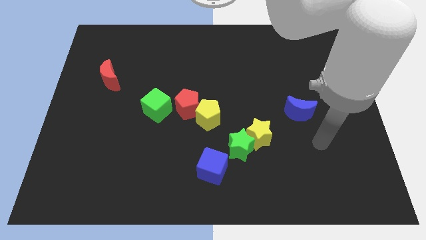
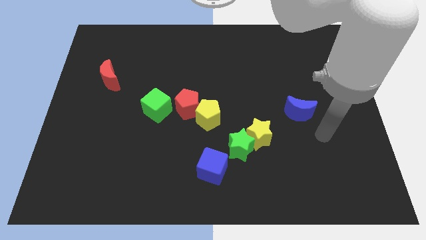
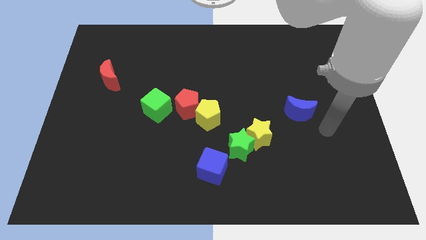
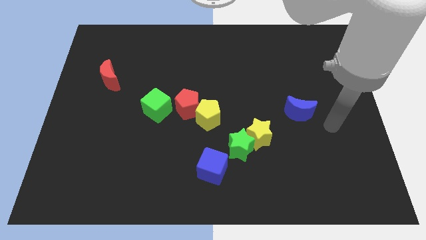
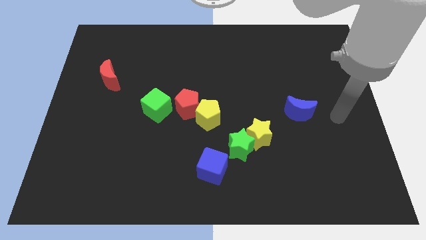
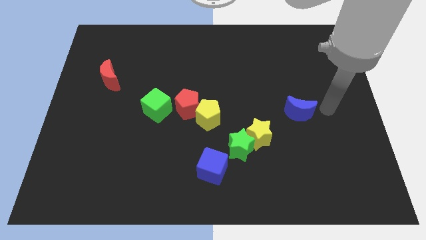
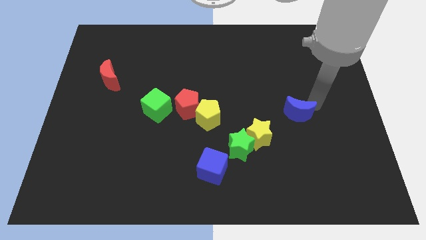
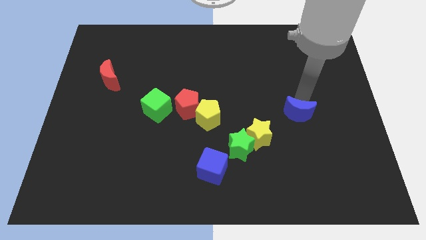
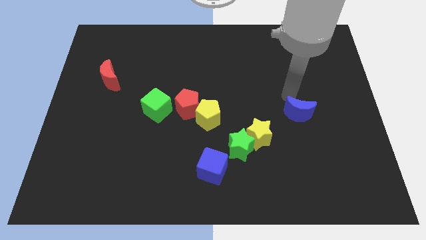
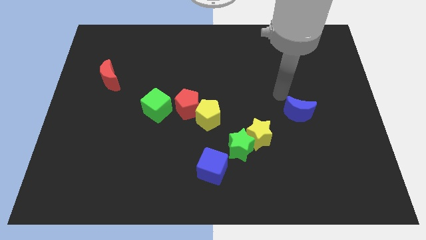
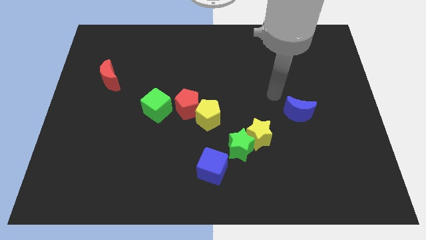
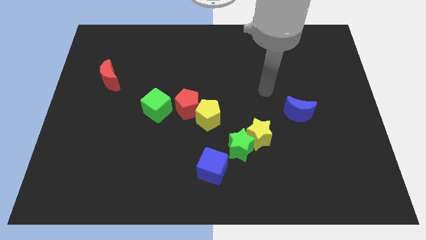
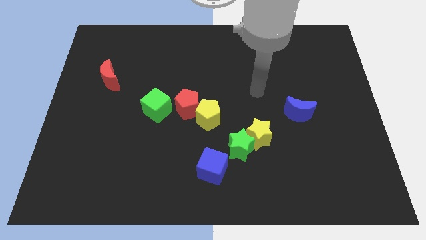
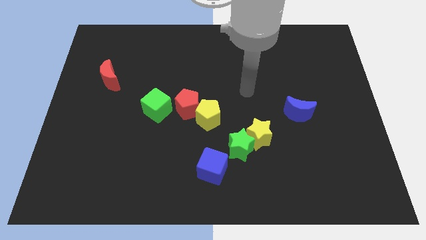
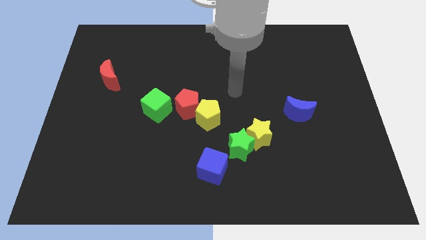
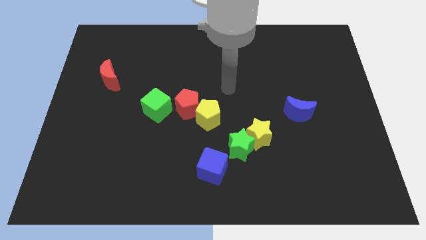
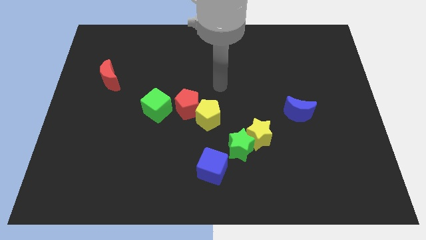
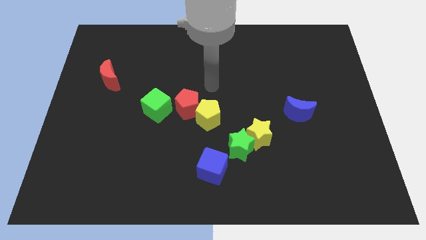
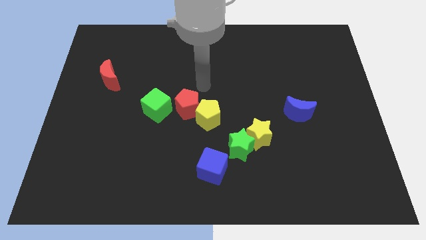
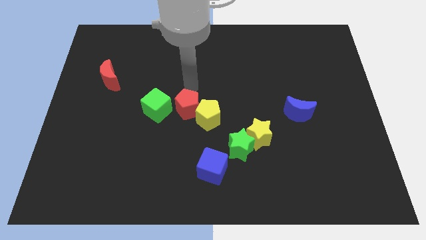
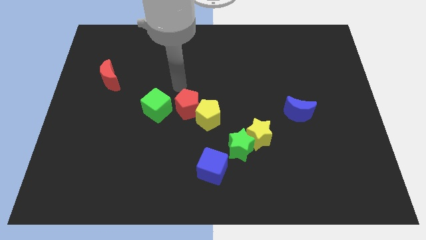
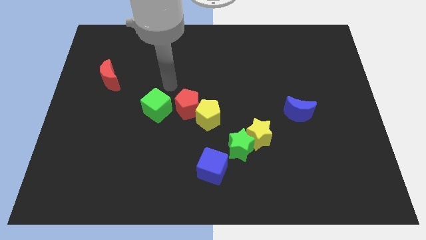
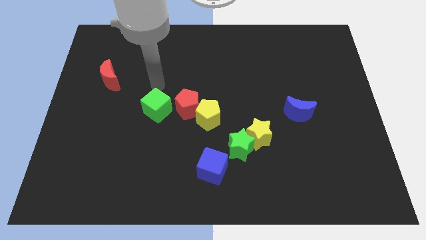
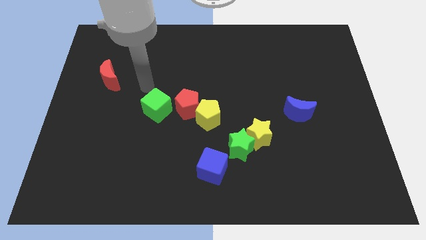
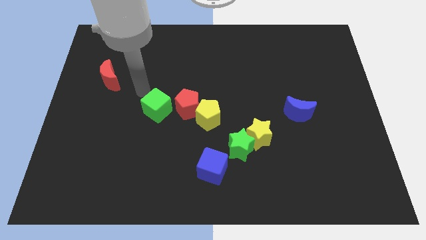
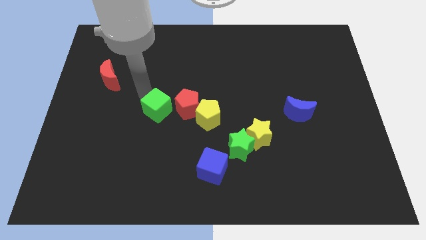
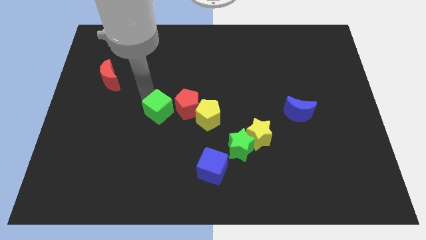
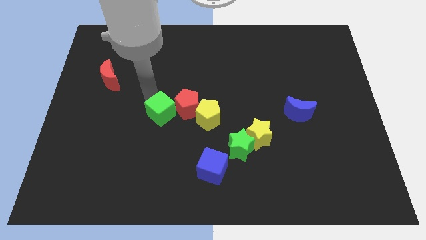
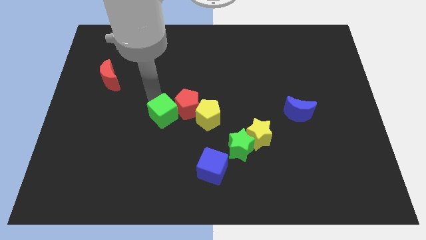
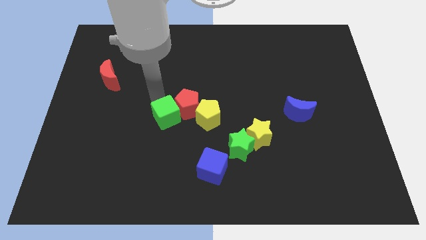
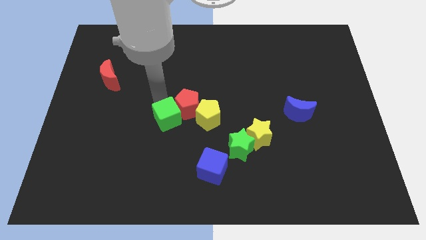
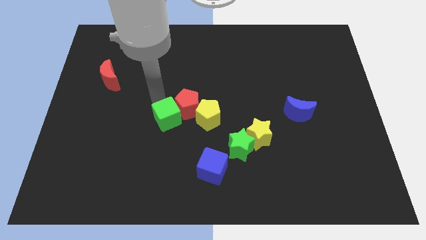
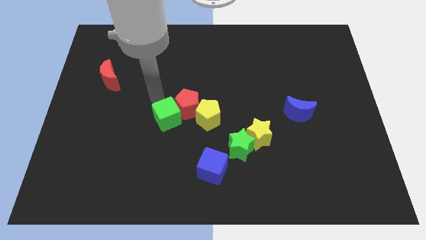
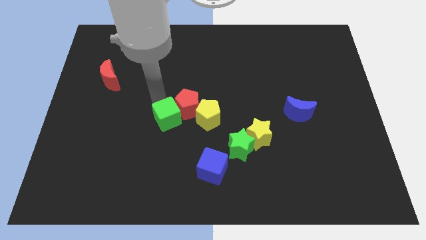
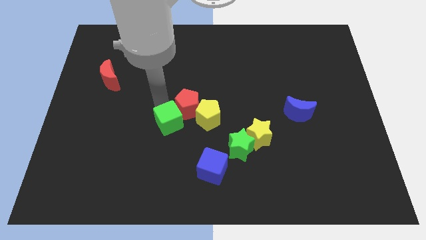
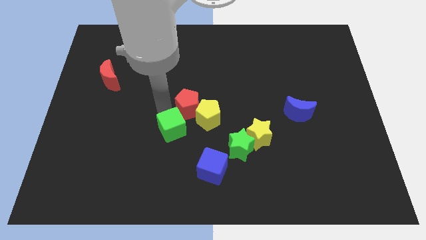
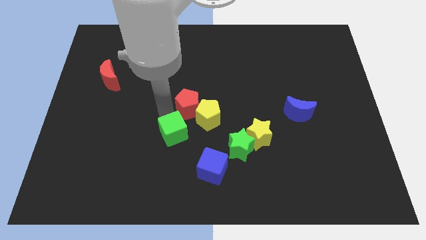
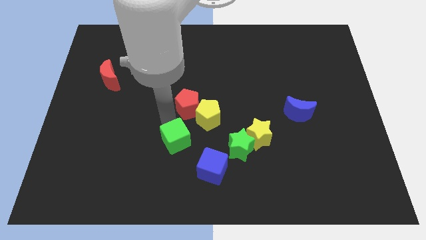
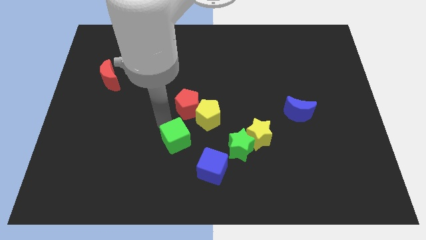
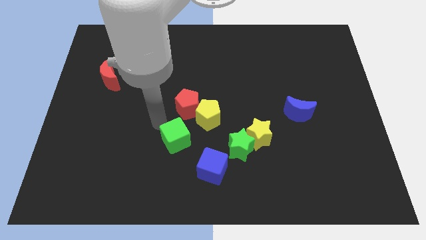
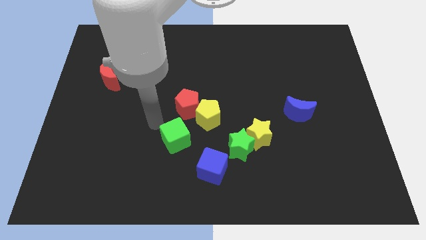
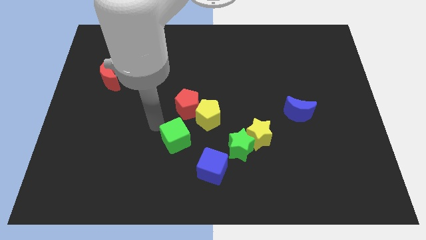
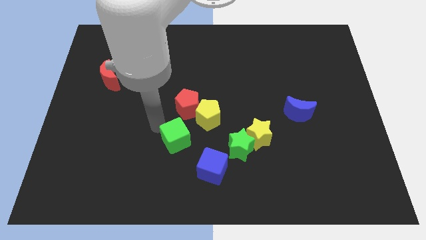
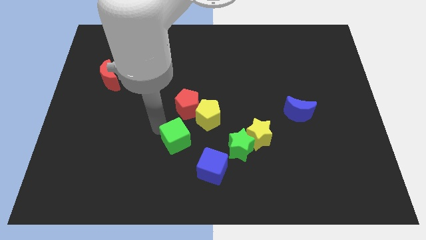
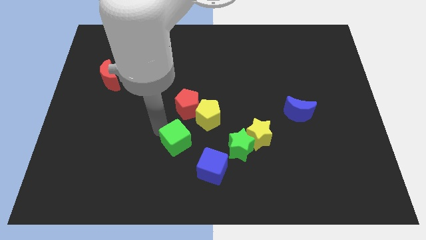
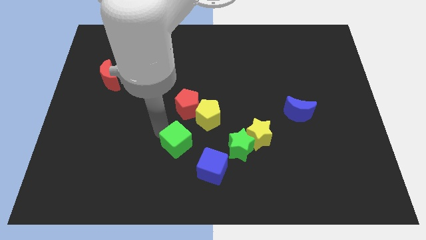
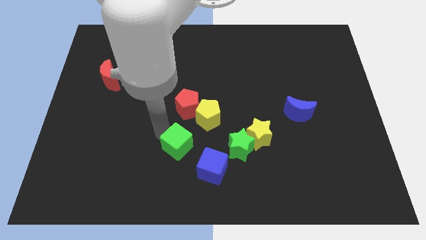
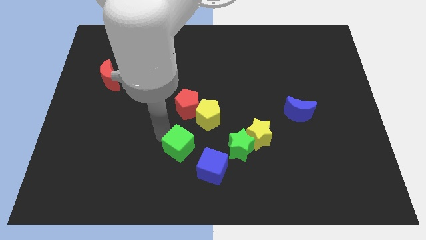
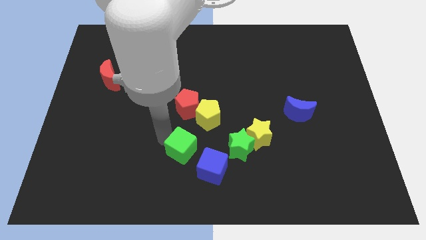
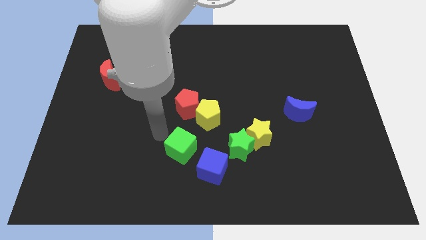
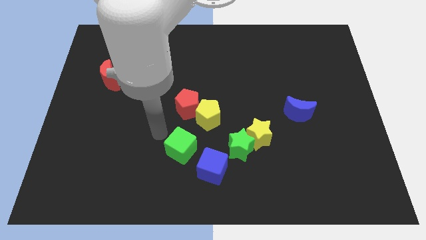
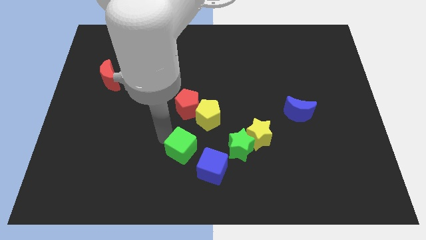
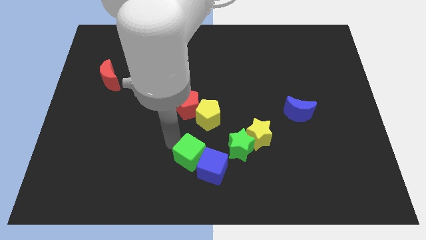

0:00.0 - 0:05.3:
slide the green cube towards the blue cube

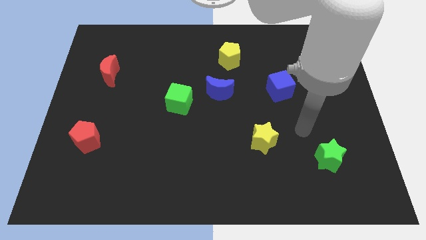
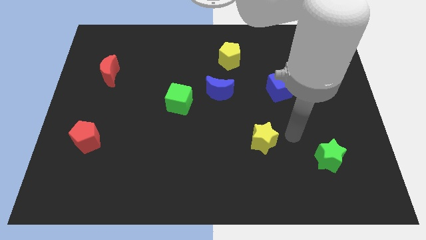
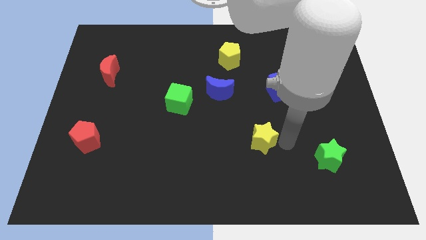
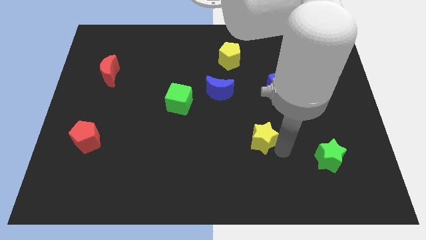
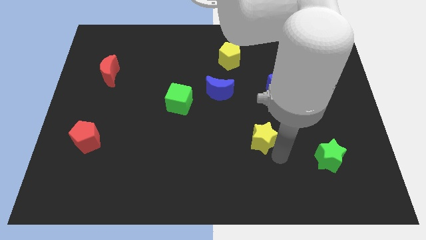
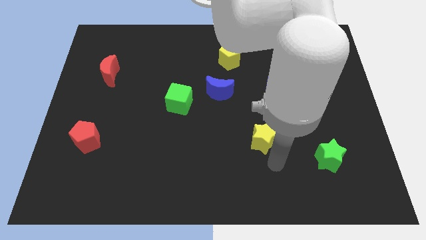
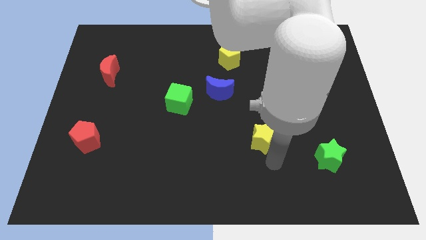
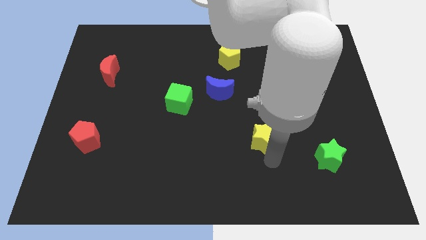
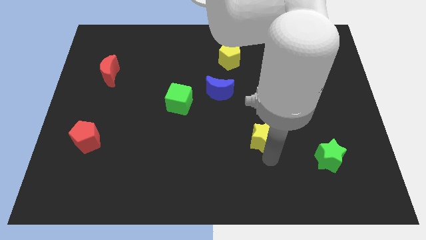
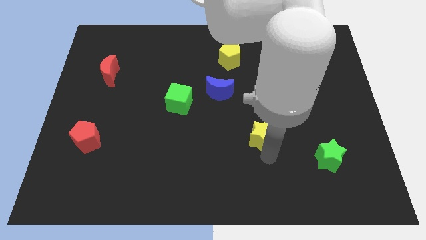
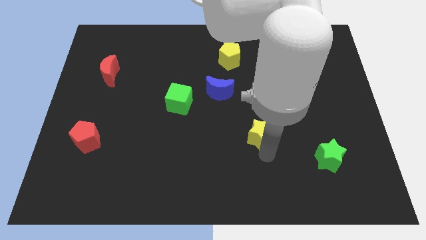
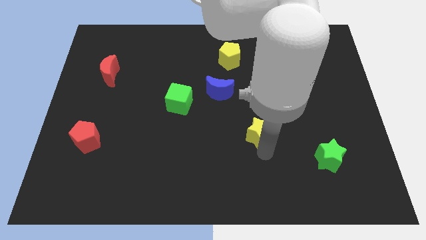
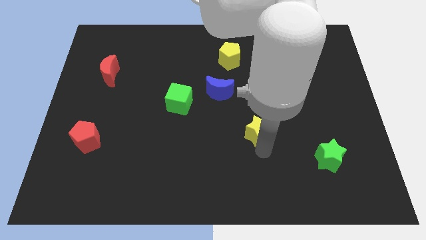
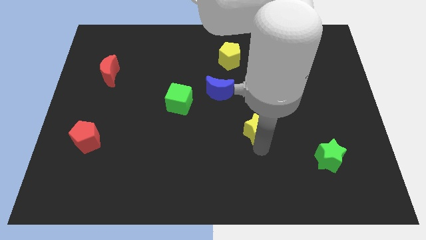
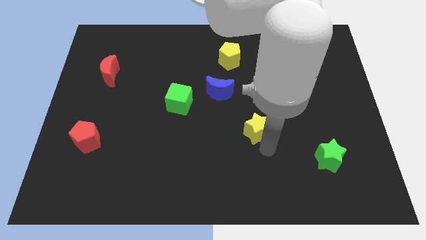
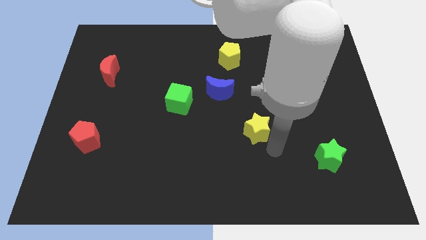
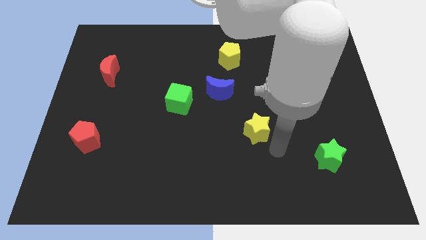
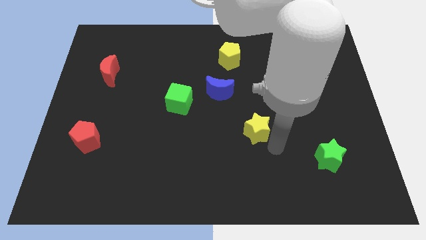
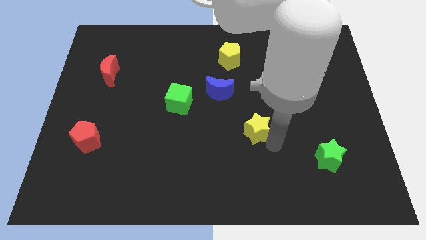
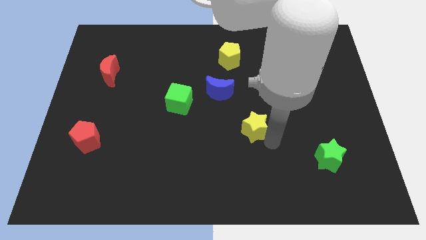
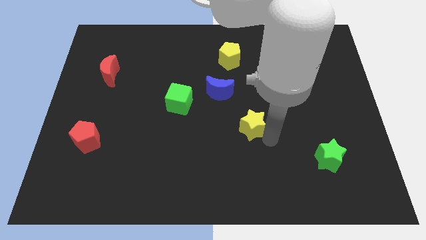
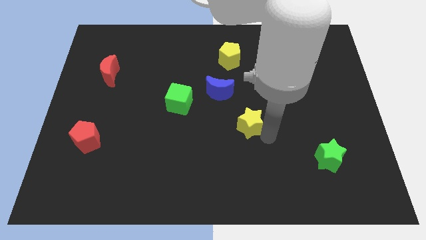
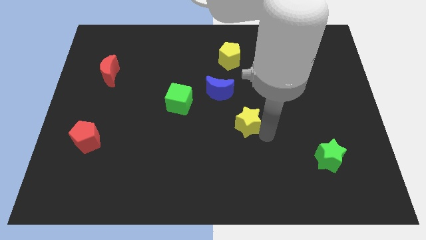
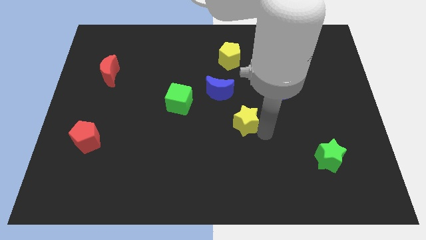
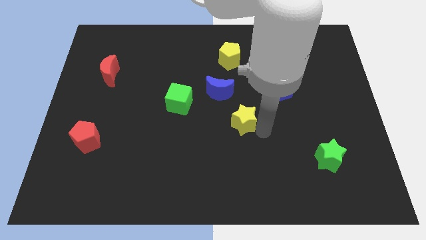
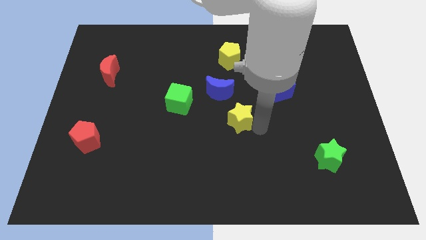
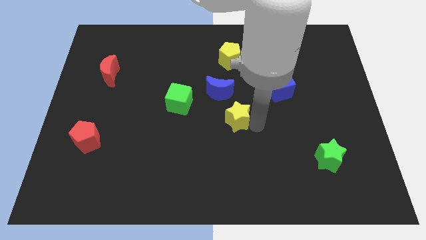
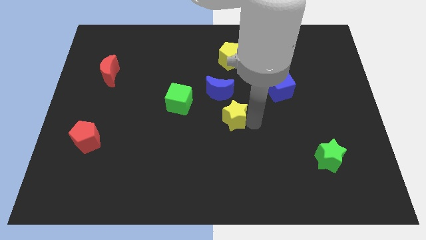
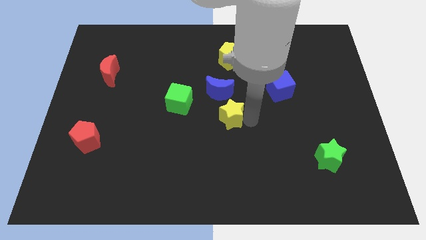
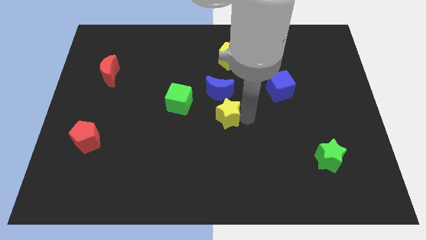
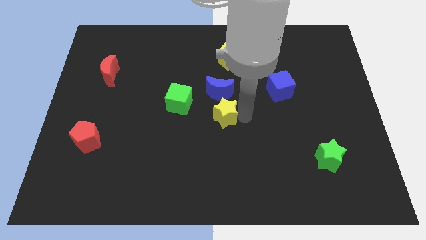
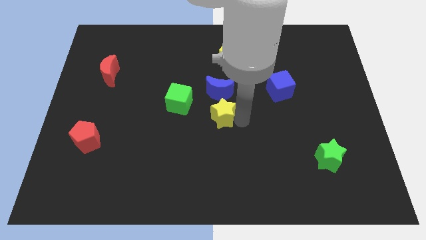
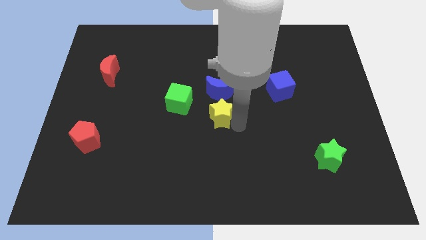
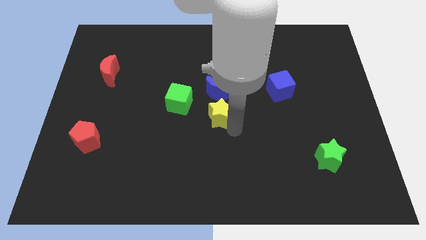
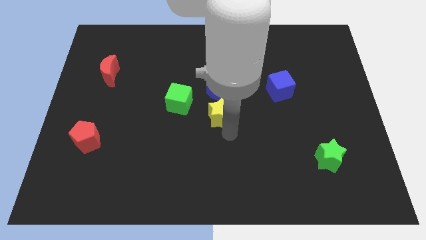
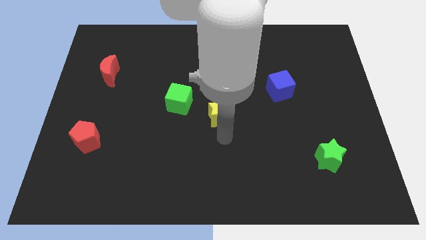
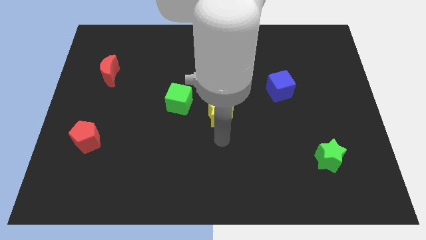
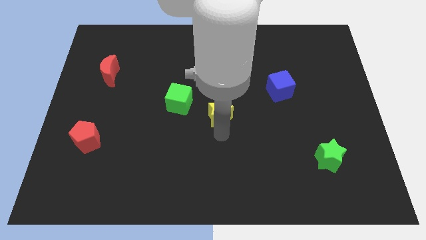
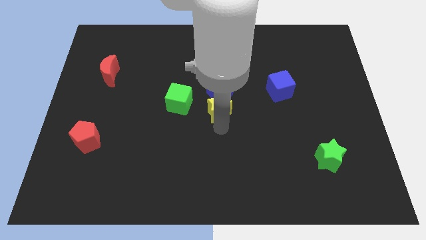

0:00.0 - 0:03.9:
slide the yellow star next to the blue moon
